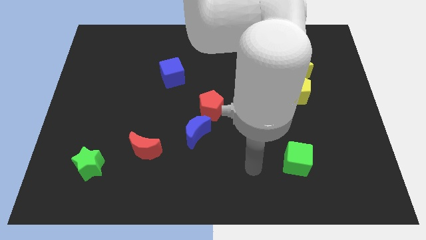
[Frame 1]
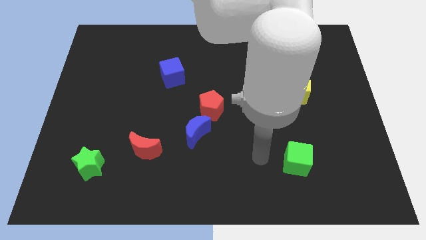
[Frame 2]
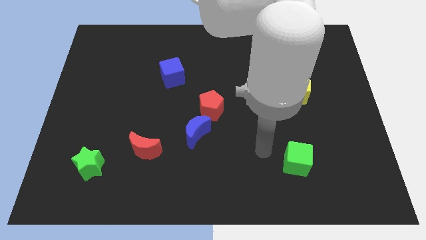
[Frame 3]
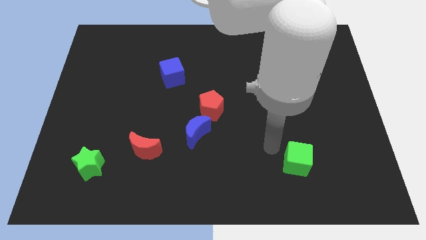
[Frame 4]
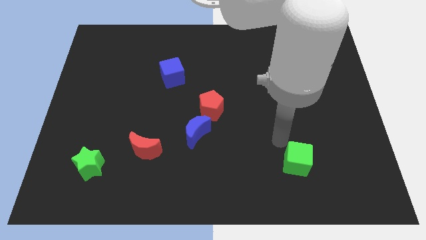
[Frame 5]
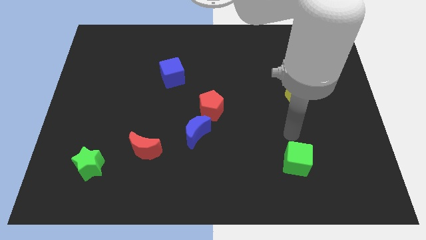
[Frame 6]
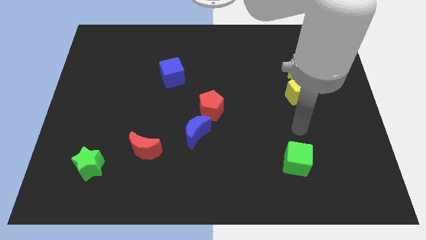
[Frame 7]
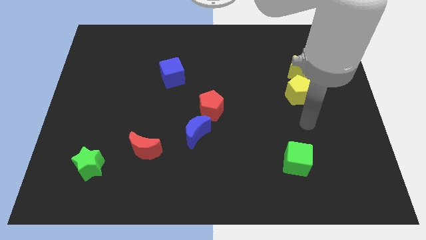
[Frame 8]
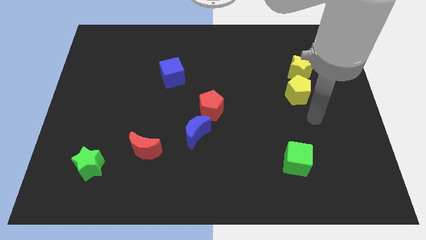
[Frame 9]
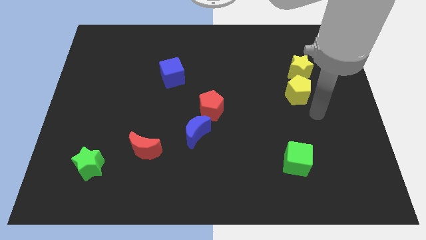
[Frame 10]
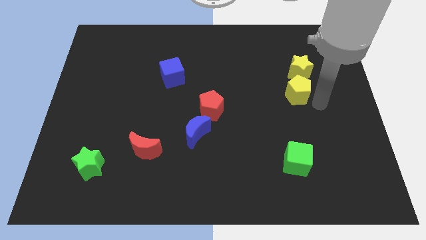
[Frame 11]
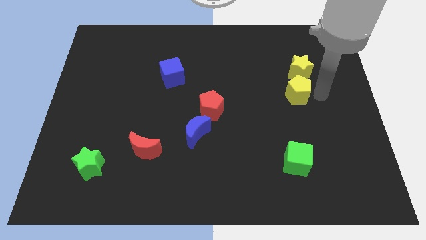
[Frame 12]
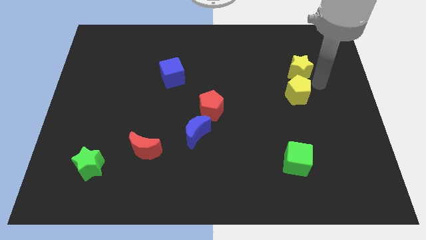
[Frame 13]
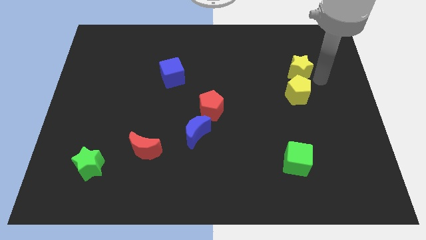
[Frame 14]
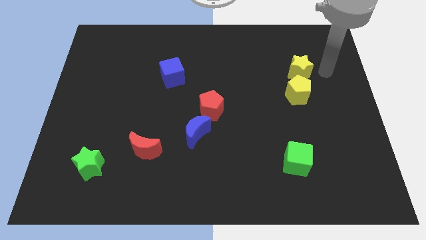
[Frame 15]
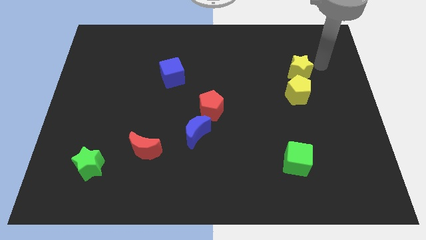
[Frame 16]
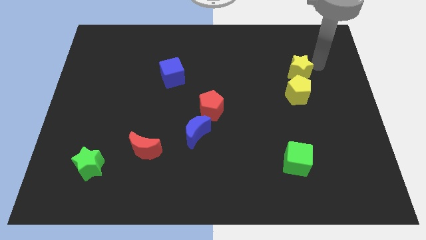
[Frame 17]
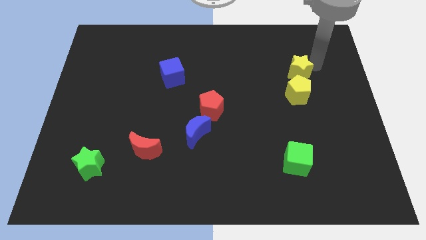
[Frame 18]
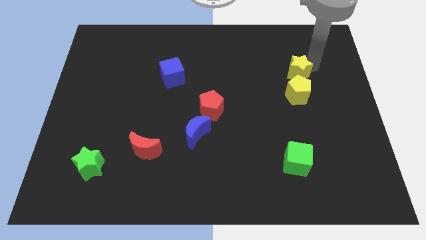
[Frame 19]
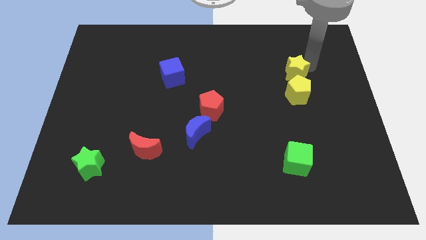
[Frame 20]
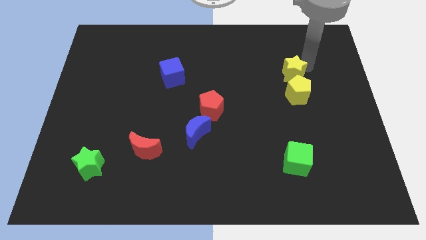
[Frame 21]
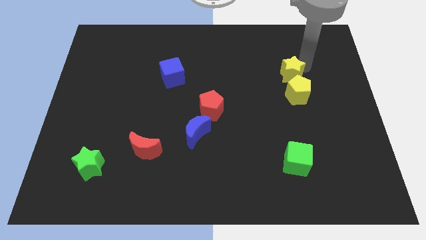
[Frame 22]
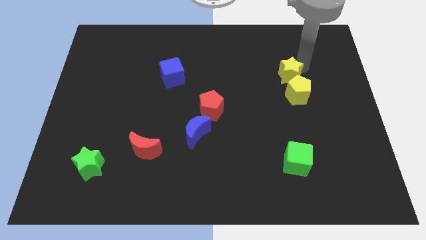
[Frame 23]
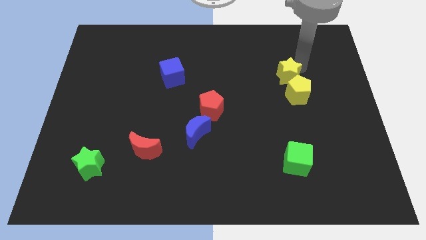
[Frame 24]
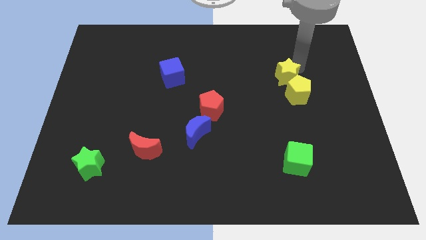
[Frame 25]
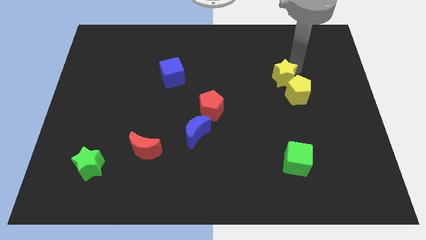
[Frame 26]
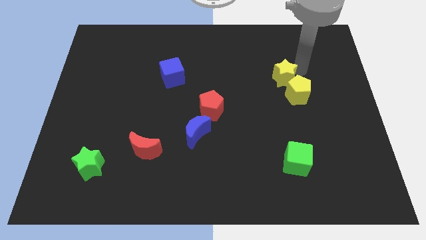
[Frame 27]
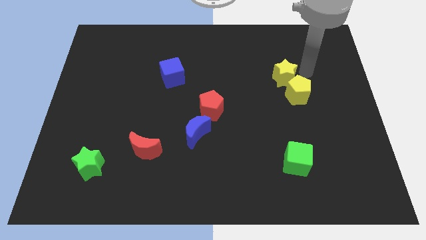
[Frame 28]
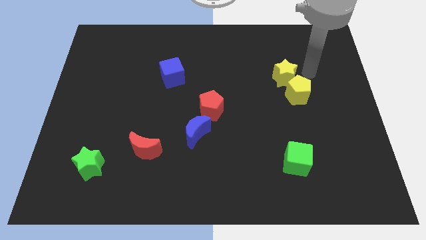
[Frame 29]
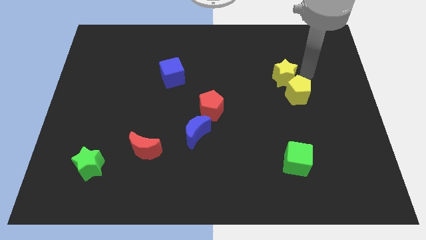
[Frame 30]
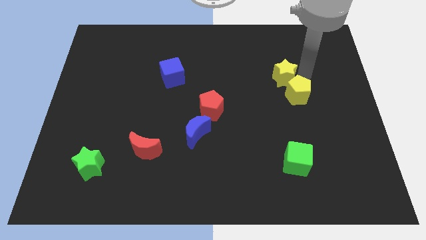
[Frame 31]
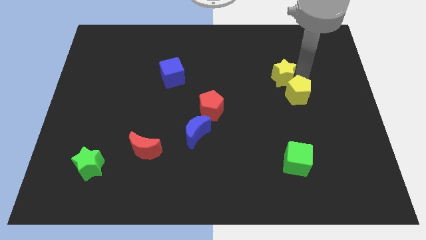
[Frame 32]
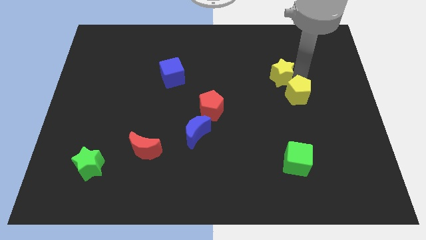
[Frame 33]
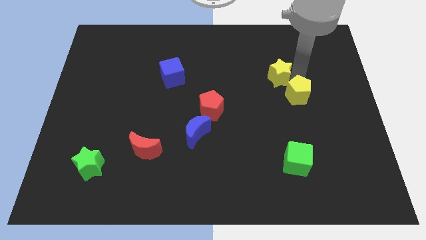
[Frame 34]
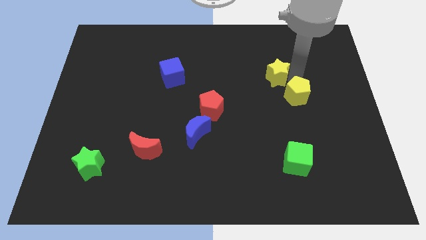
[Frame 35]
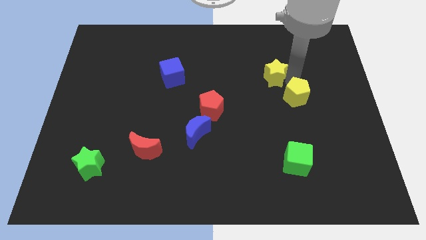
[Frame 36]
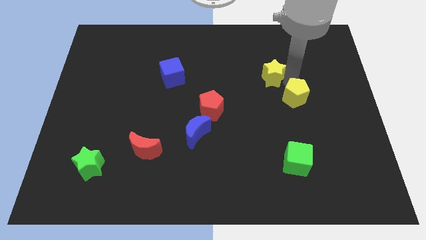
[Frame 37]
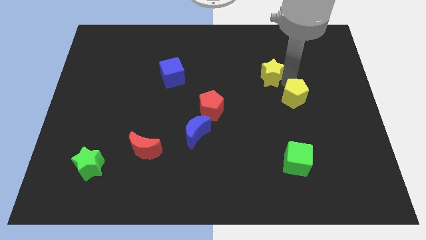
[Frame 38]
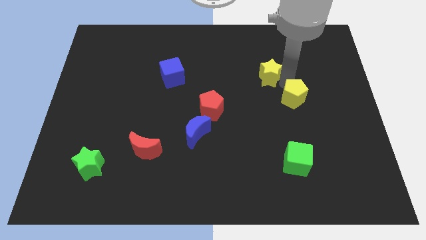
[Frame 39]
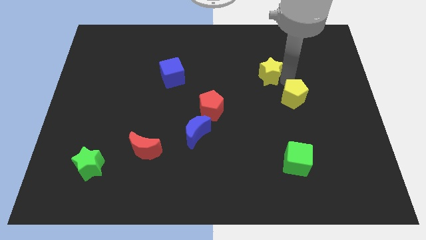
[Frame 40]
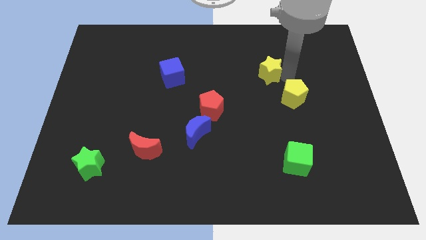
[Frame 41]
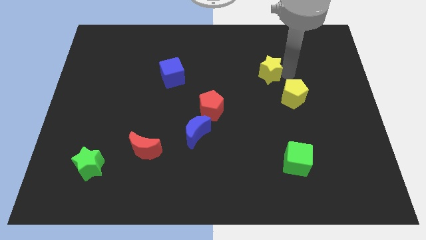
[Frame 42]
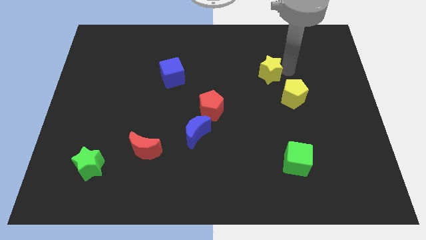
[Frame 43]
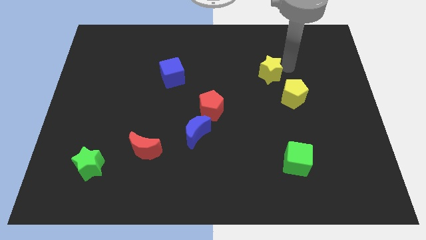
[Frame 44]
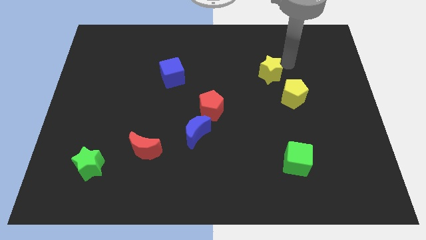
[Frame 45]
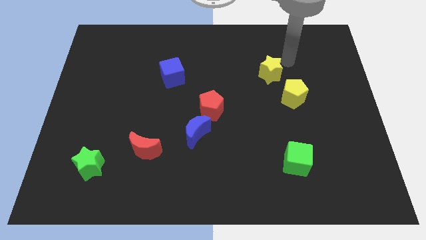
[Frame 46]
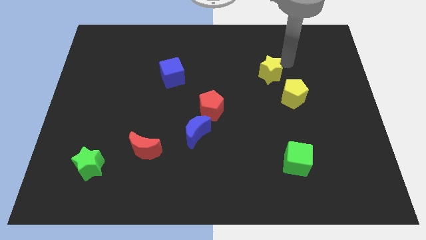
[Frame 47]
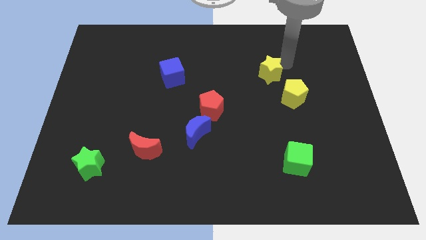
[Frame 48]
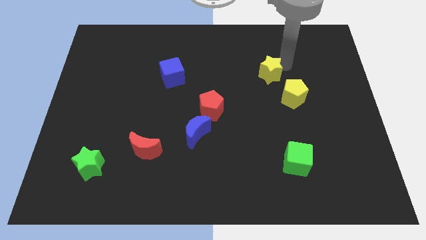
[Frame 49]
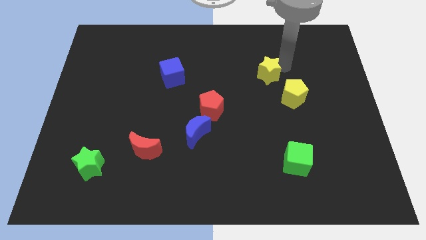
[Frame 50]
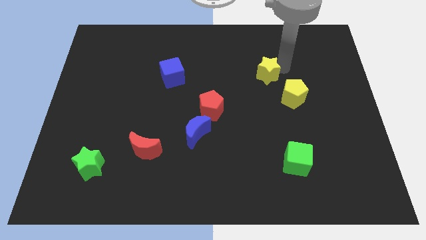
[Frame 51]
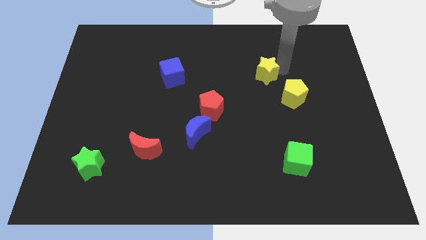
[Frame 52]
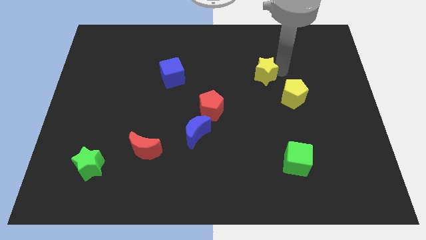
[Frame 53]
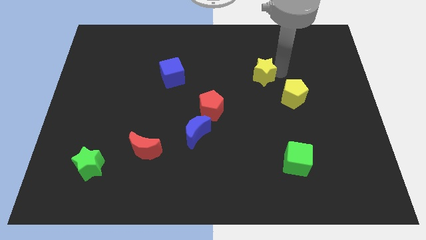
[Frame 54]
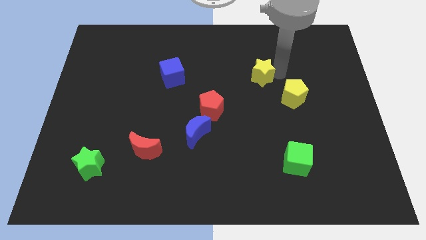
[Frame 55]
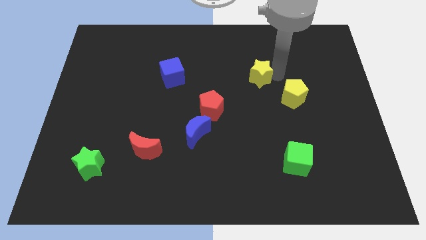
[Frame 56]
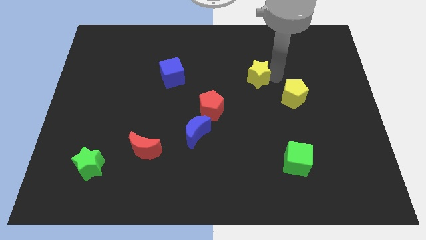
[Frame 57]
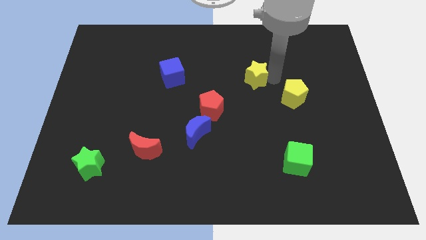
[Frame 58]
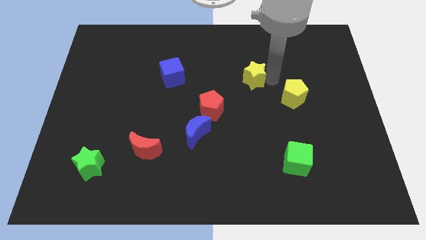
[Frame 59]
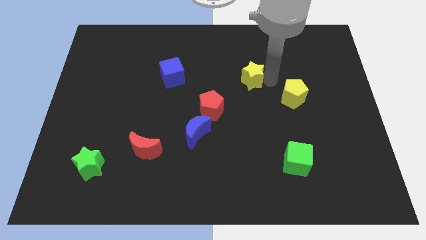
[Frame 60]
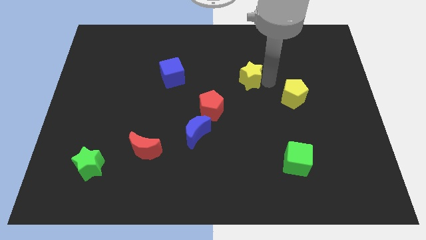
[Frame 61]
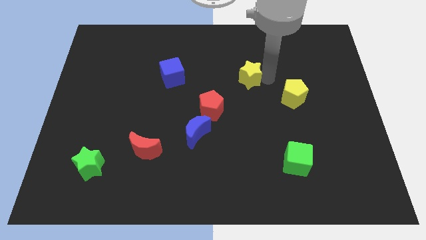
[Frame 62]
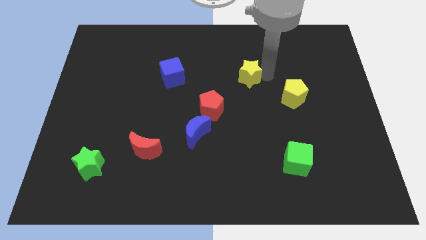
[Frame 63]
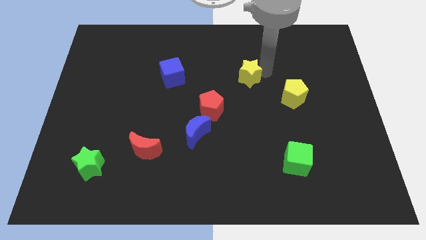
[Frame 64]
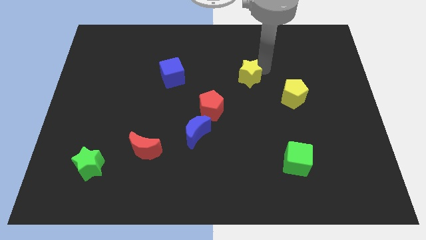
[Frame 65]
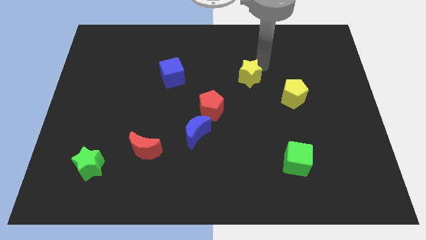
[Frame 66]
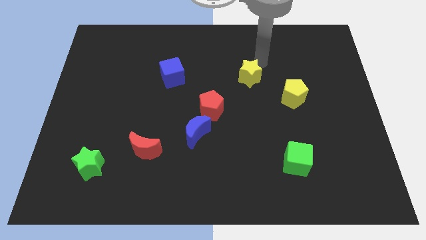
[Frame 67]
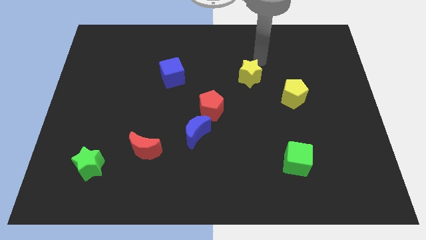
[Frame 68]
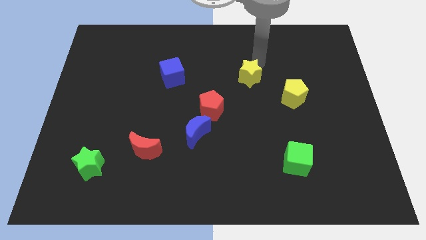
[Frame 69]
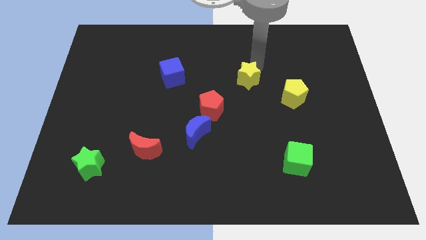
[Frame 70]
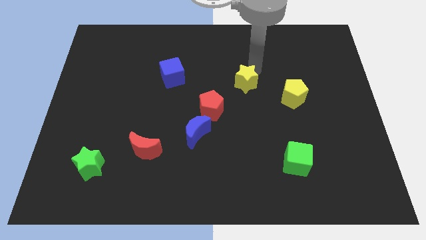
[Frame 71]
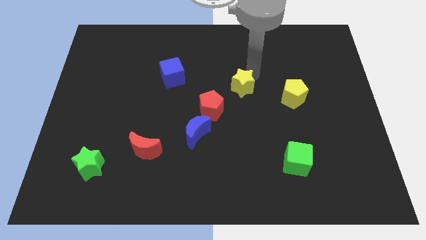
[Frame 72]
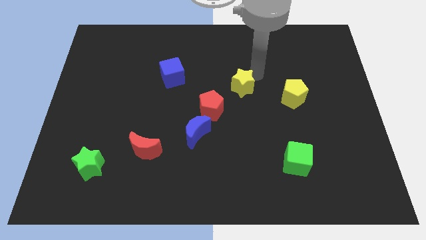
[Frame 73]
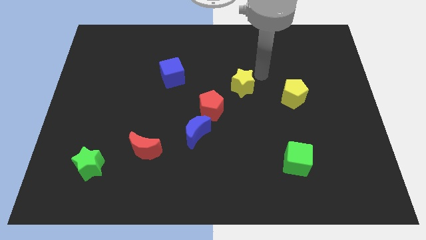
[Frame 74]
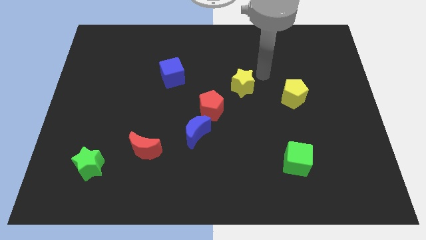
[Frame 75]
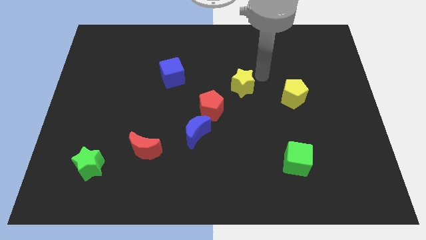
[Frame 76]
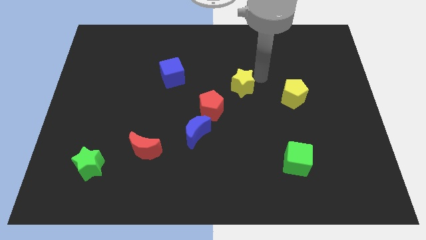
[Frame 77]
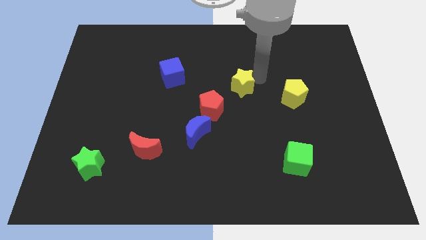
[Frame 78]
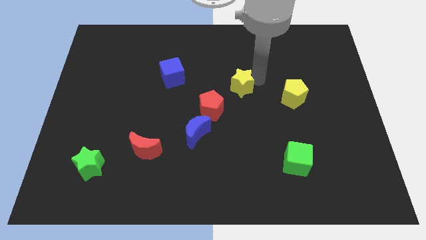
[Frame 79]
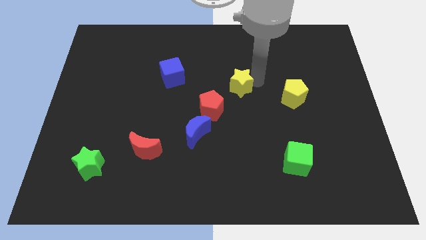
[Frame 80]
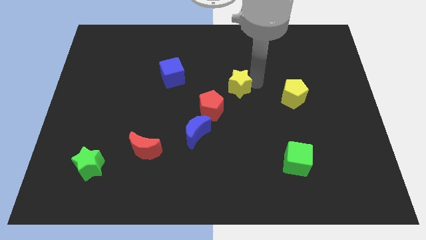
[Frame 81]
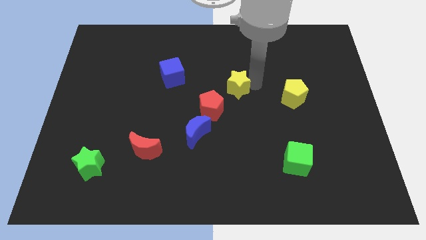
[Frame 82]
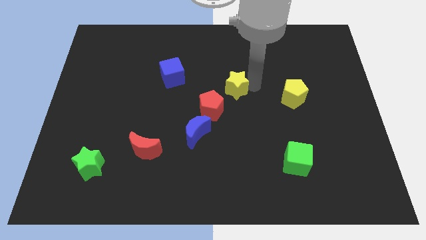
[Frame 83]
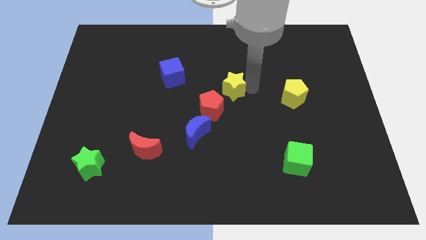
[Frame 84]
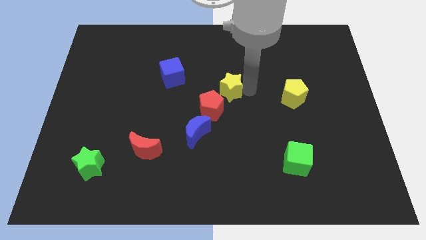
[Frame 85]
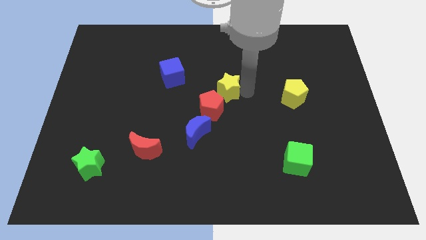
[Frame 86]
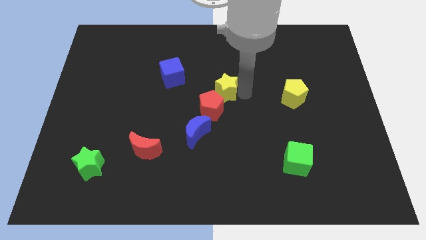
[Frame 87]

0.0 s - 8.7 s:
push the yellow star close to the red pentagon
